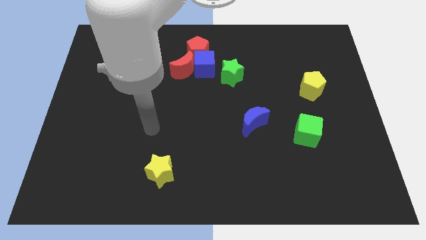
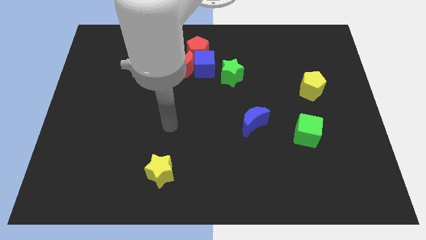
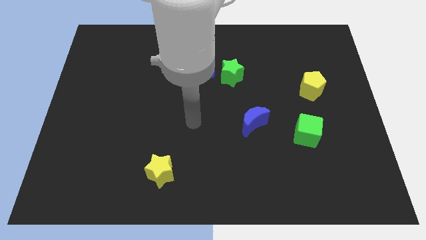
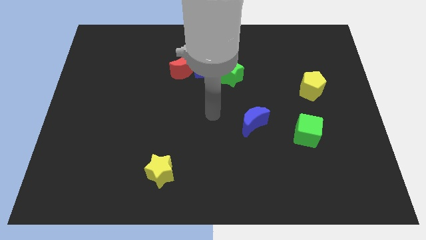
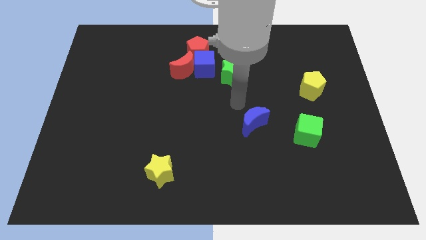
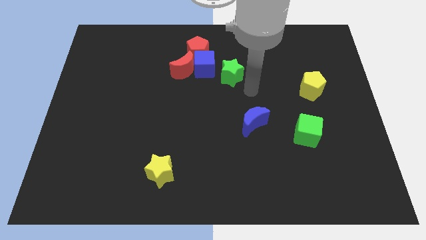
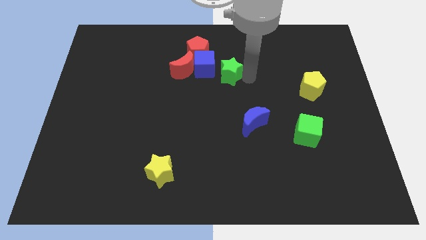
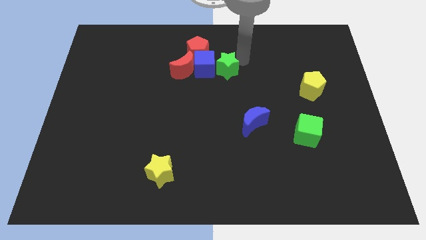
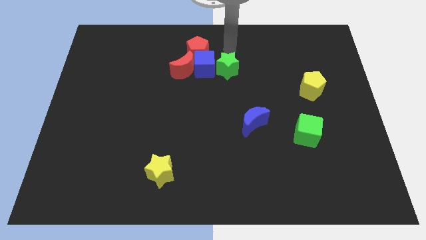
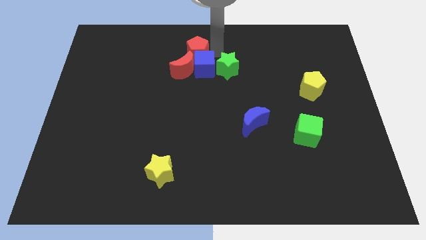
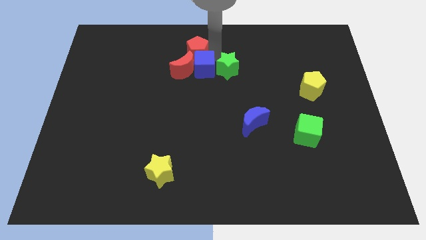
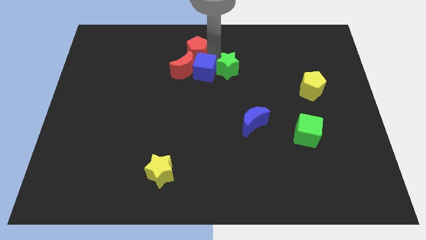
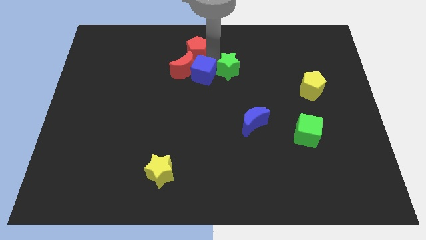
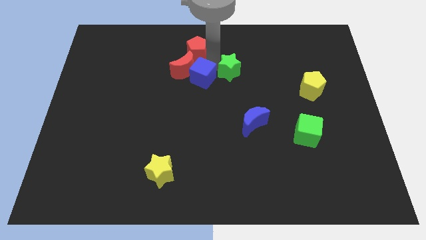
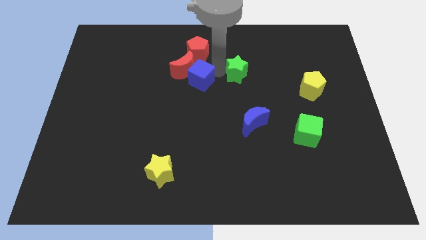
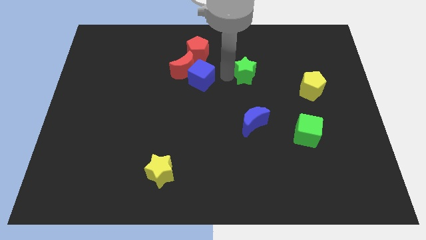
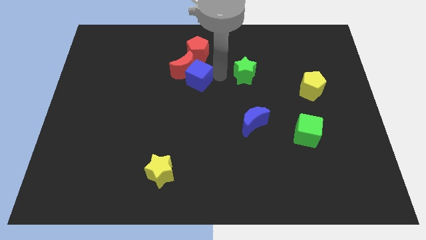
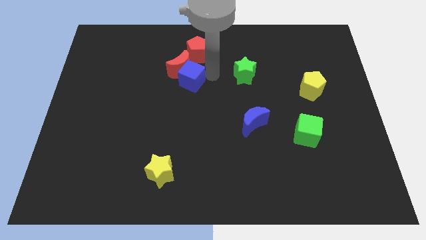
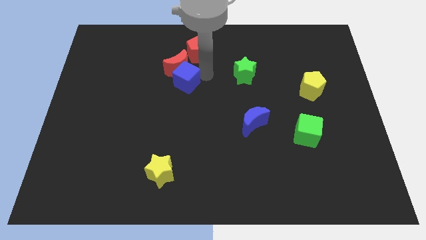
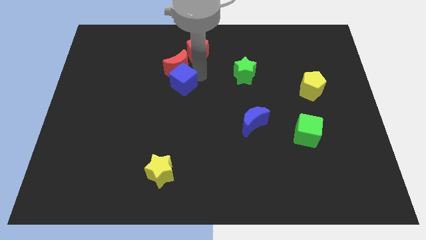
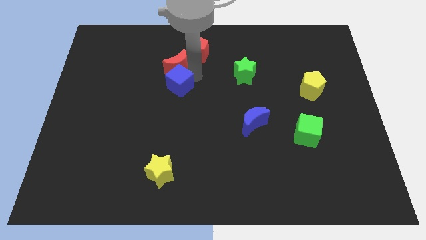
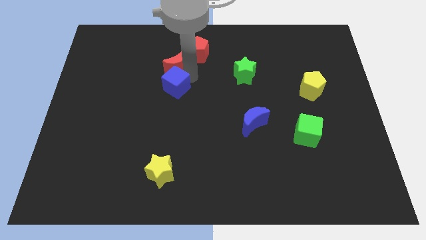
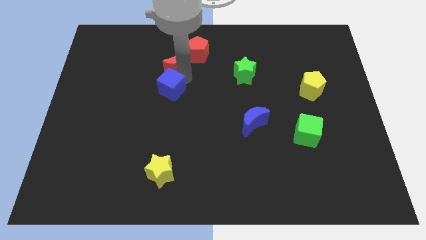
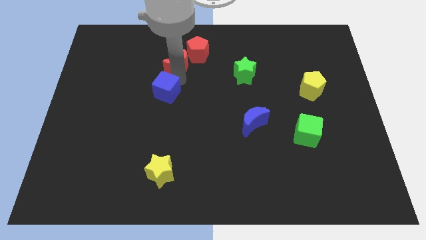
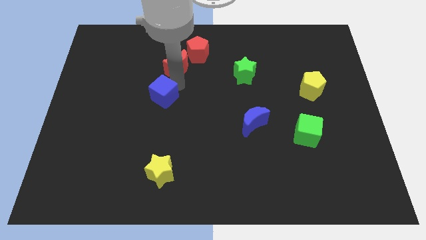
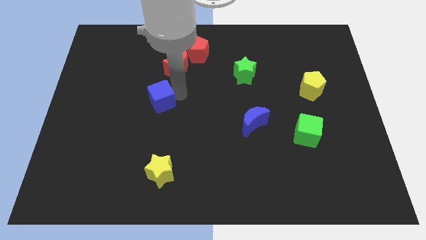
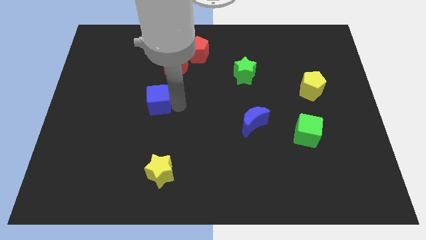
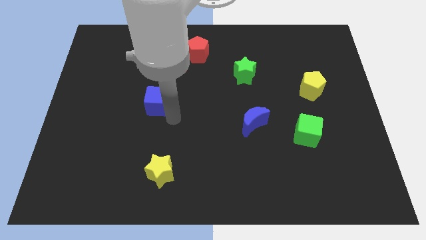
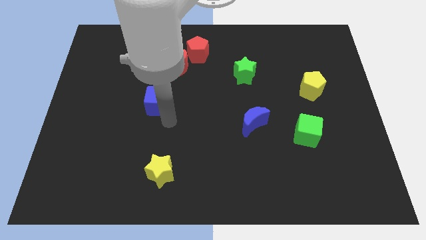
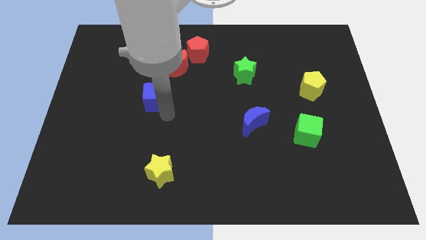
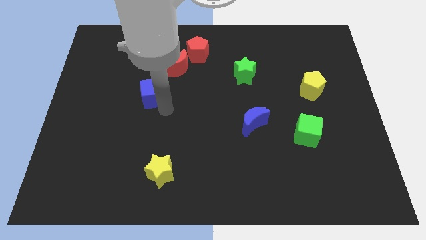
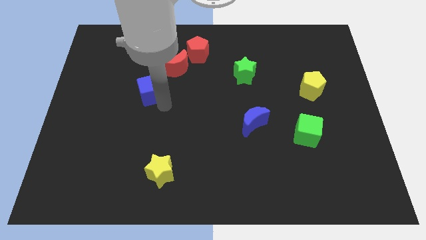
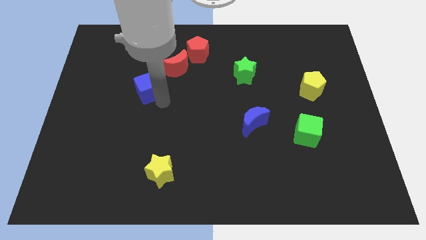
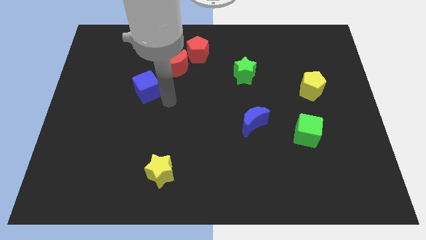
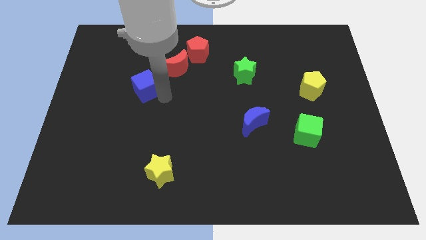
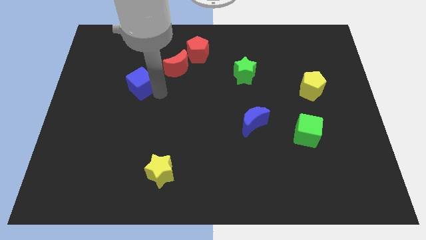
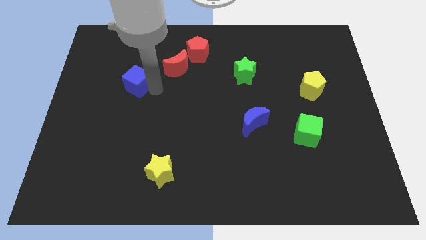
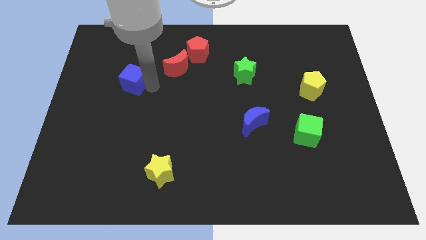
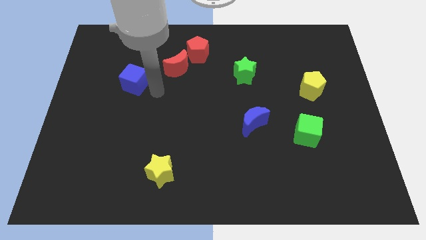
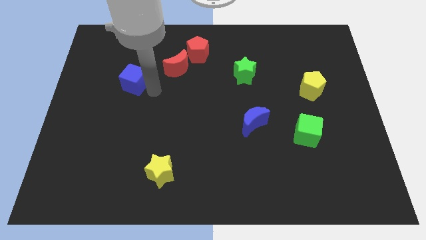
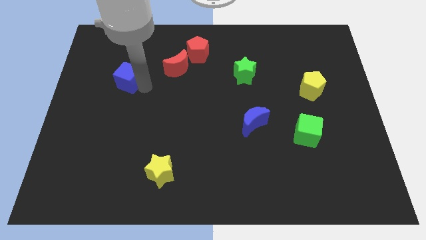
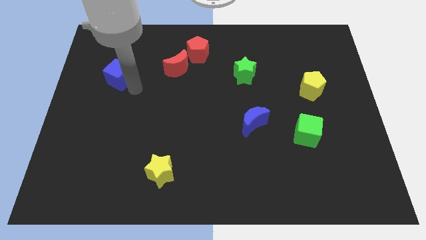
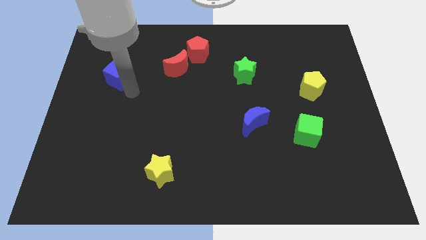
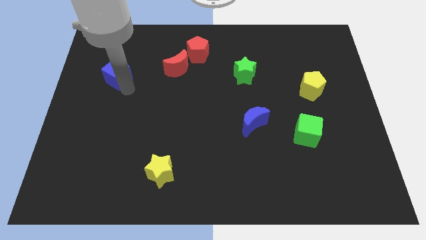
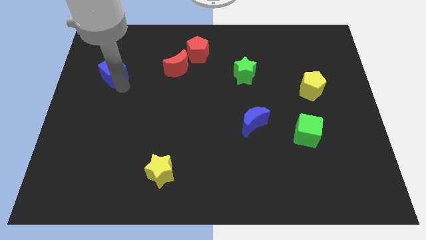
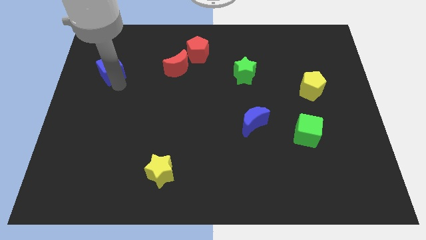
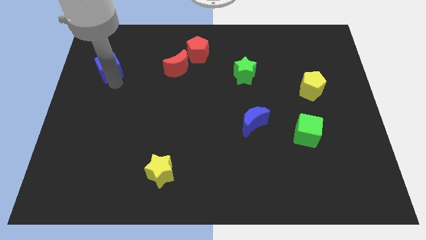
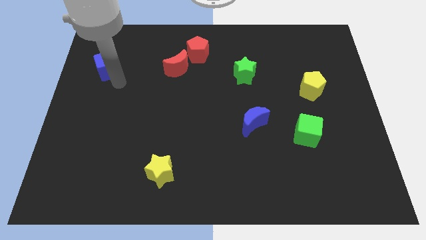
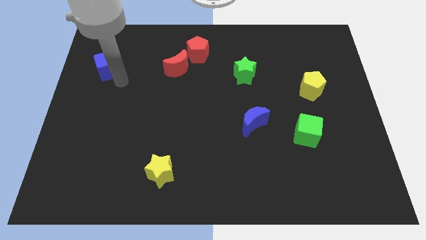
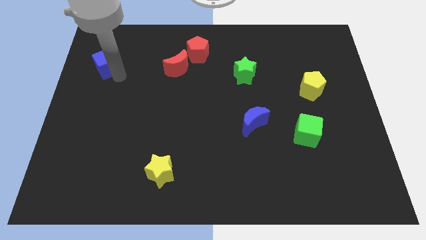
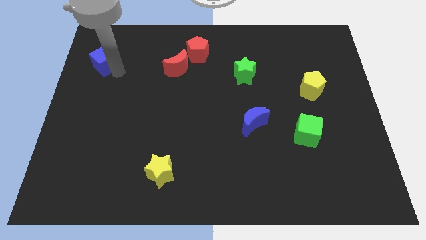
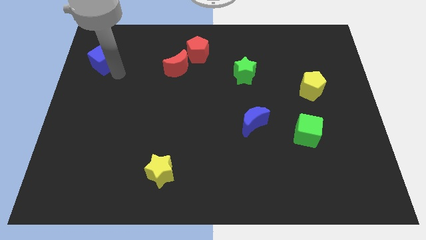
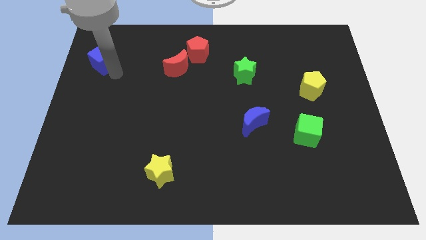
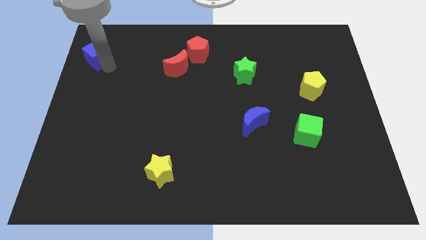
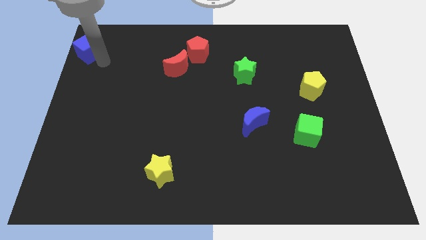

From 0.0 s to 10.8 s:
slide the blue cube to the top left of the board
